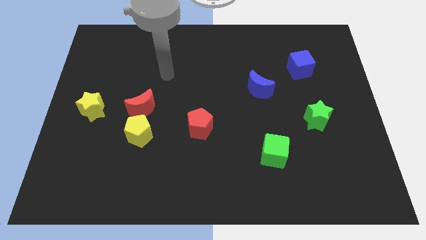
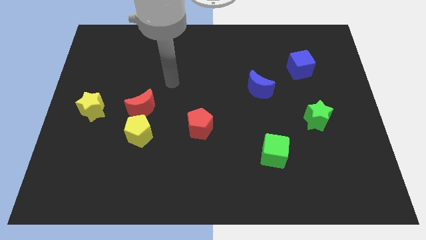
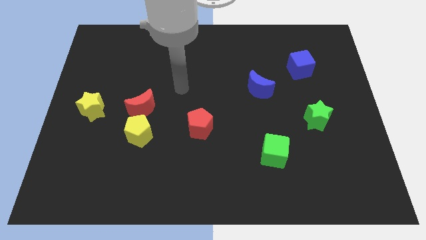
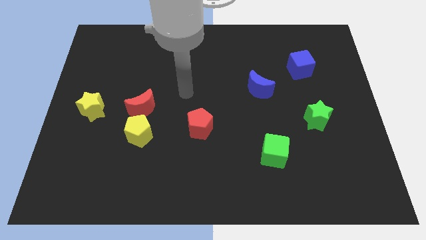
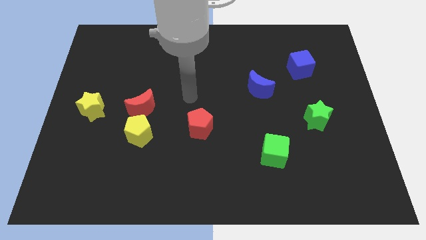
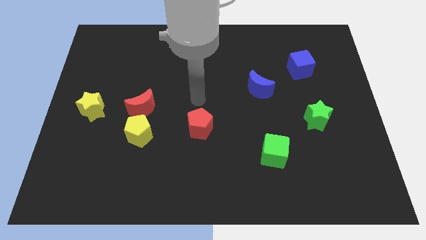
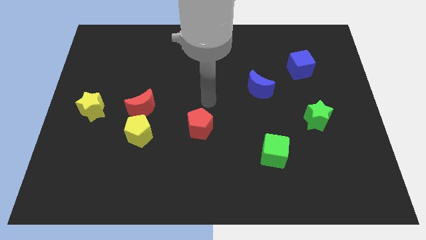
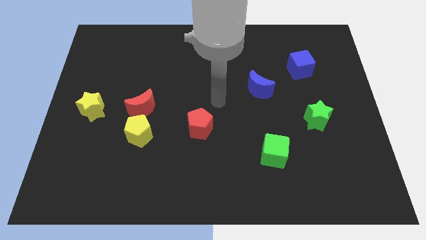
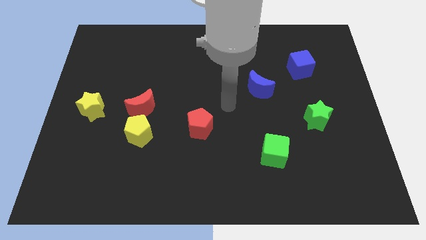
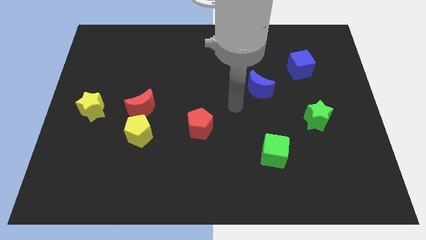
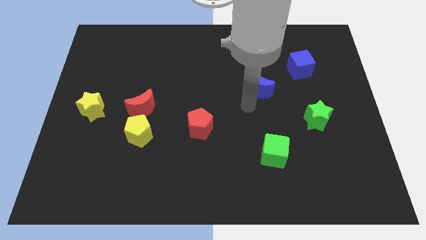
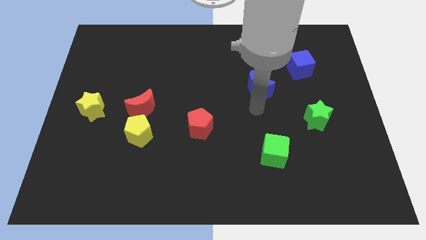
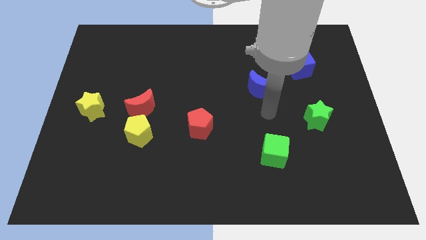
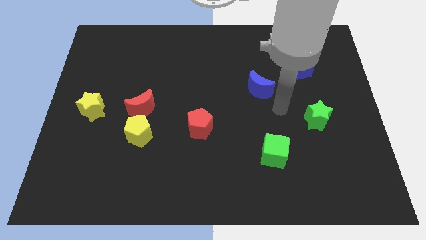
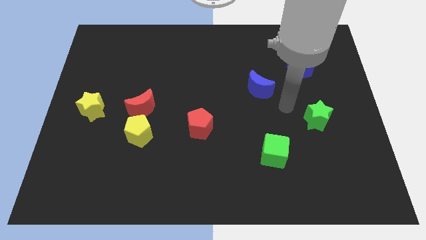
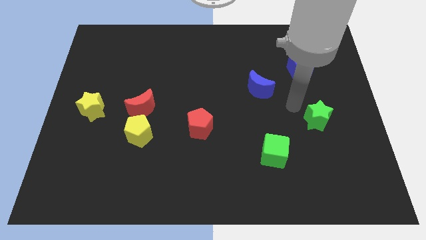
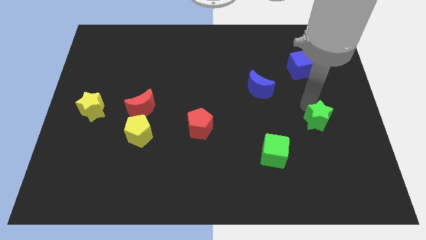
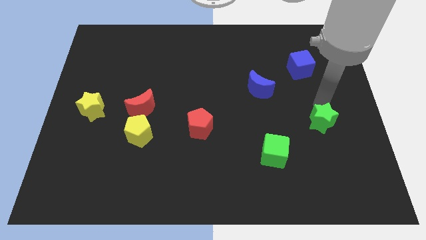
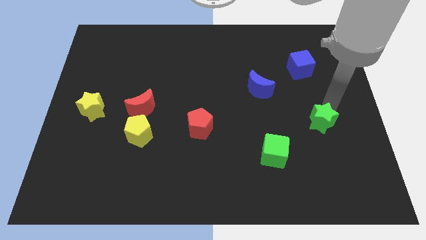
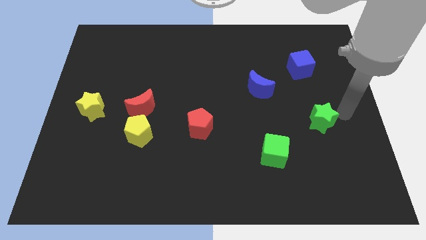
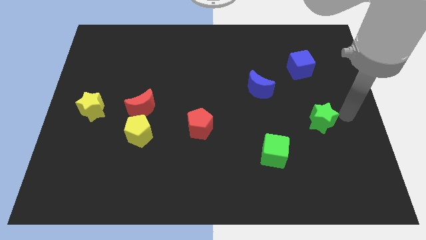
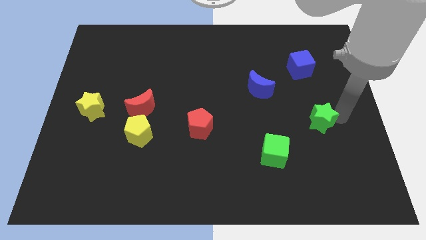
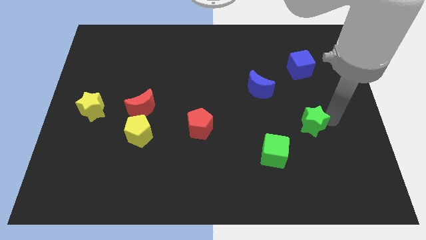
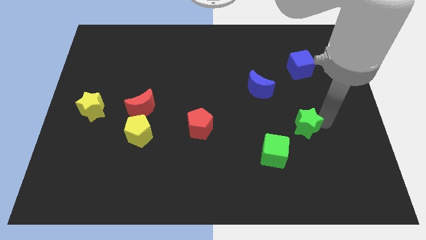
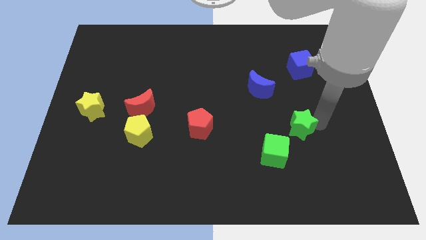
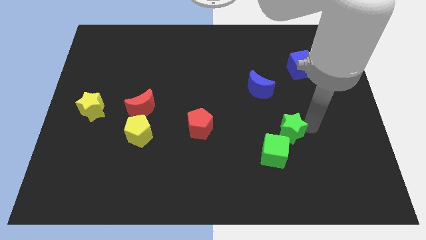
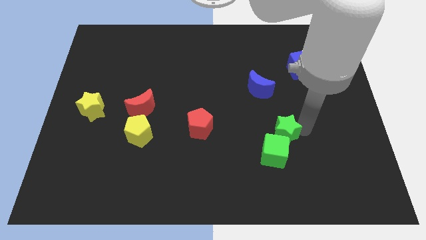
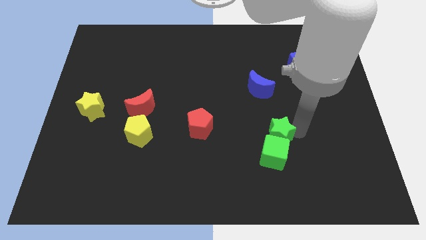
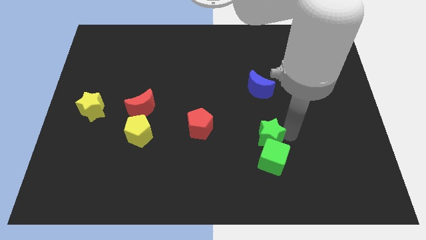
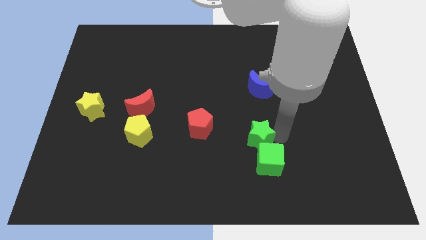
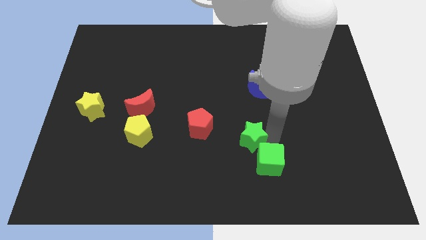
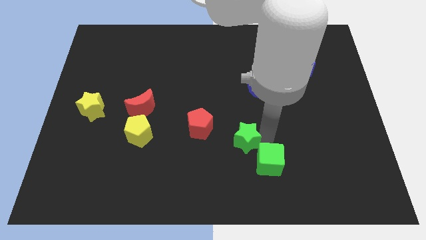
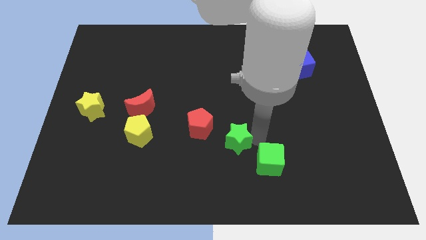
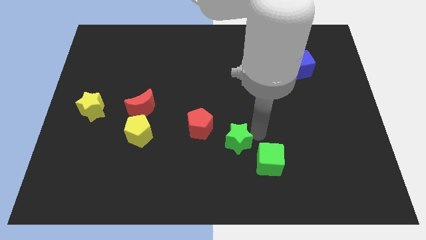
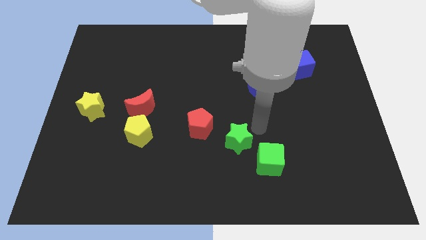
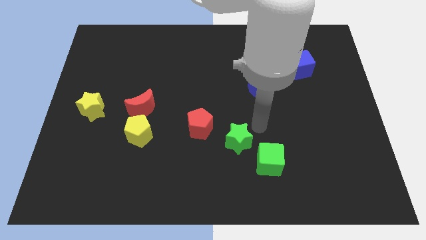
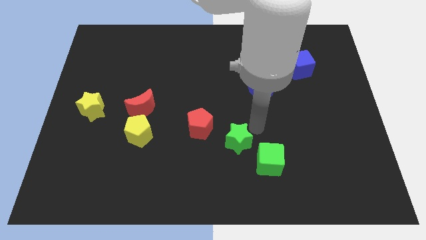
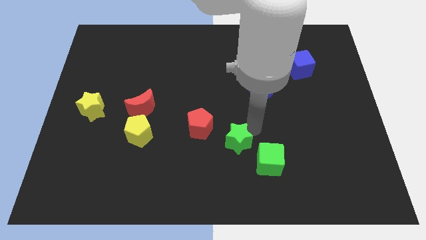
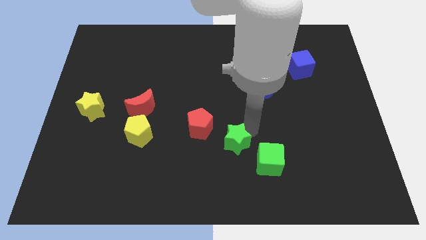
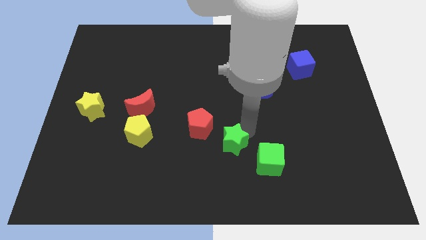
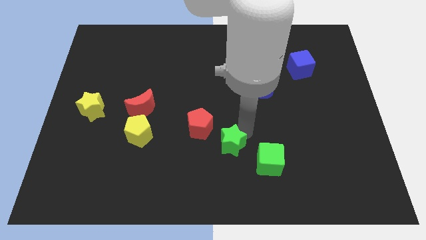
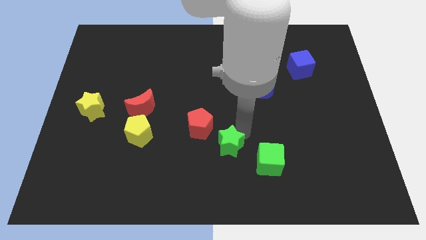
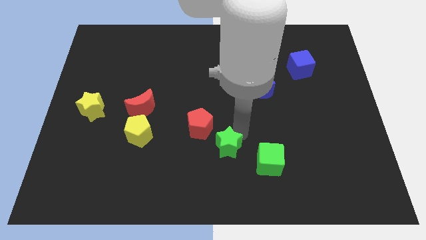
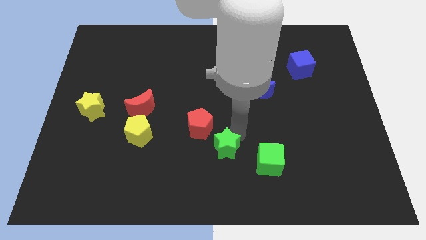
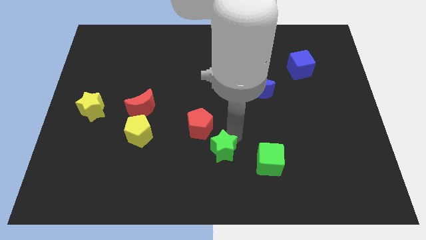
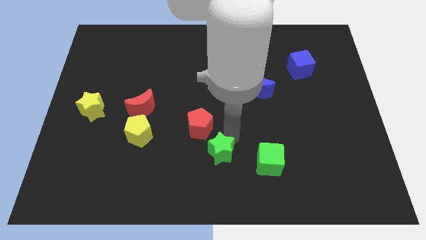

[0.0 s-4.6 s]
push the green star to the bottom of the red pentagon

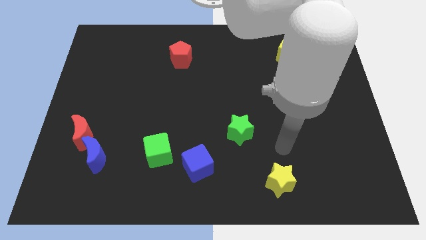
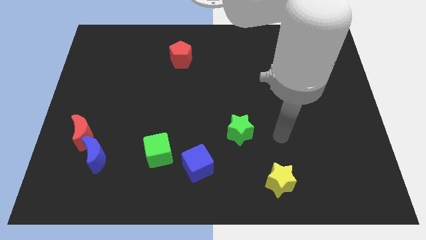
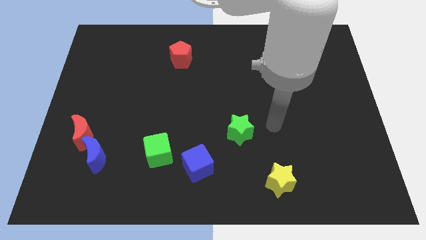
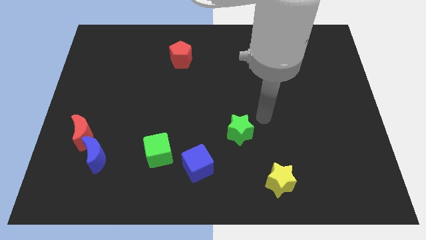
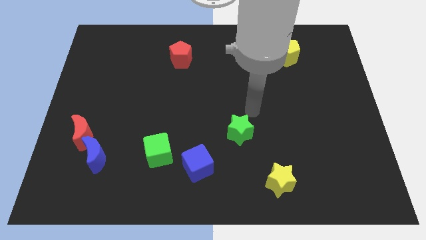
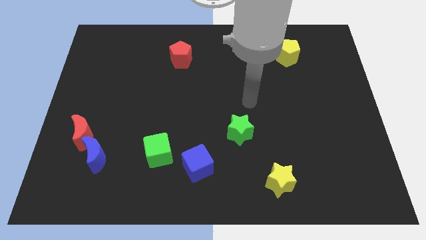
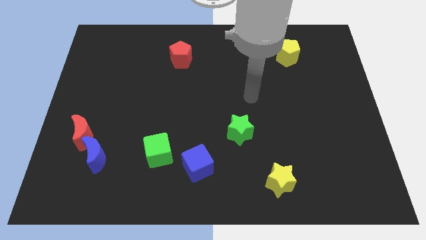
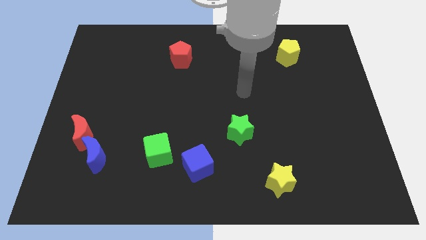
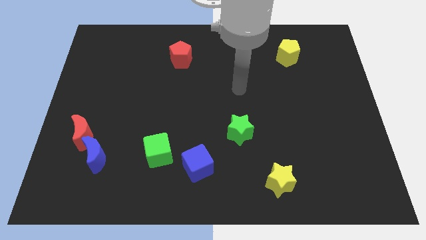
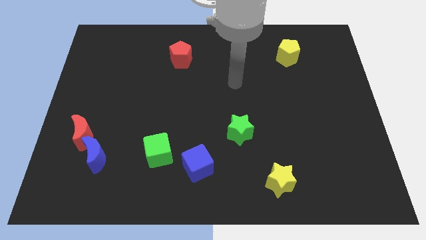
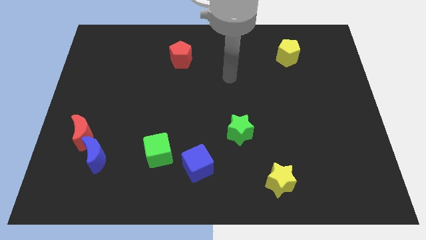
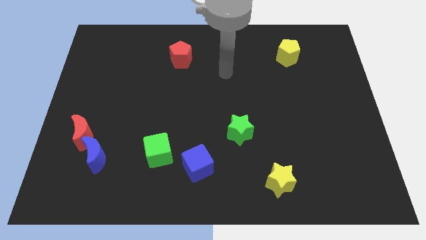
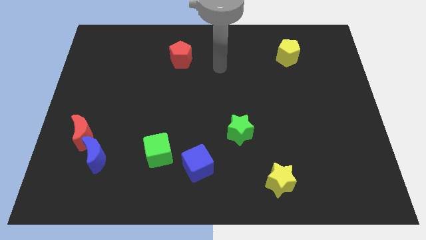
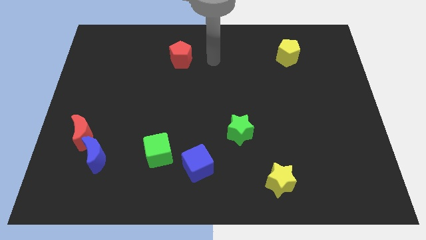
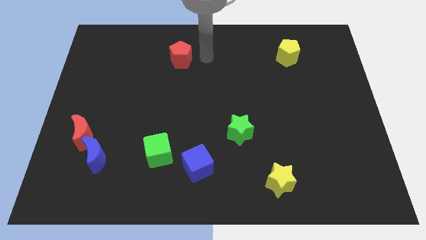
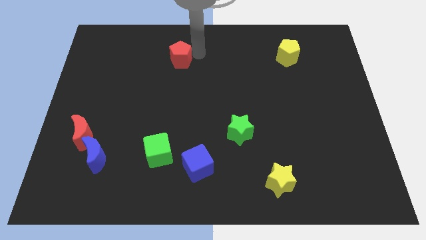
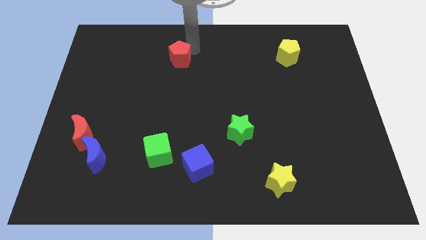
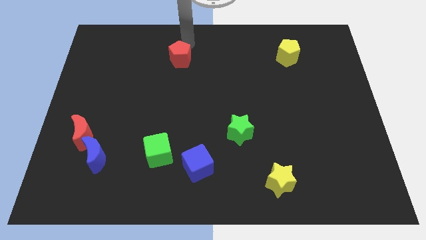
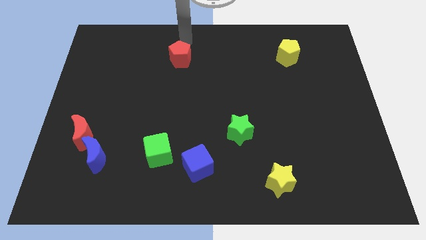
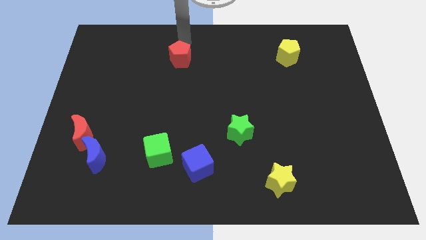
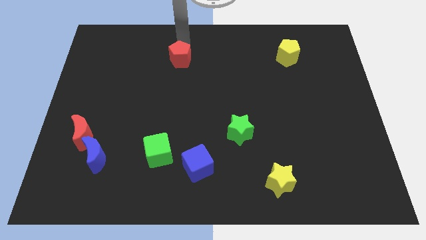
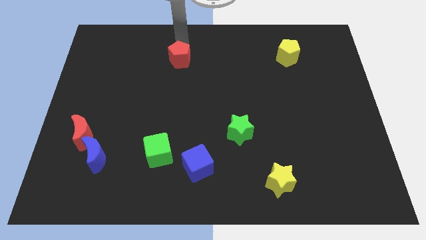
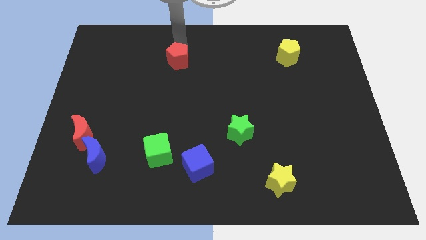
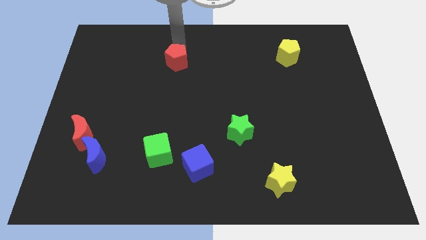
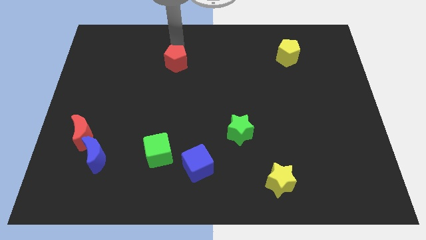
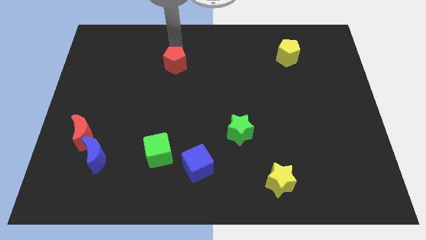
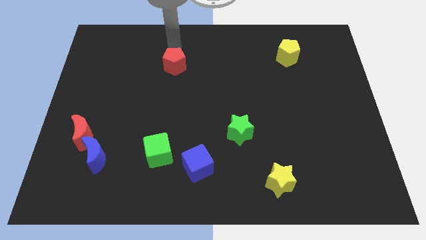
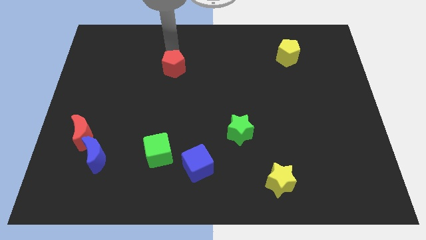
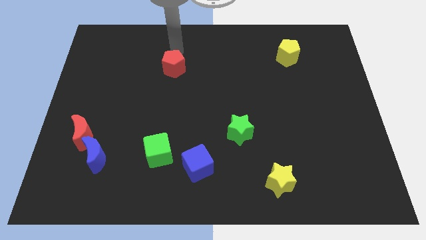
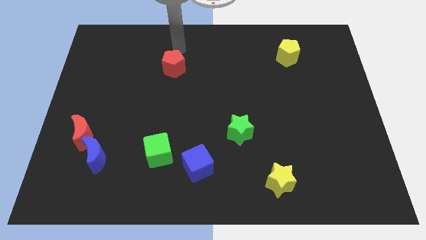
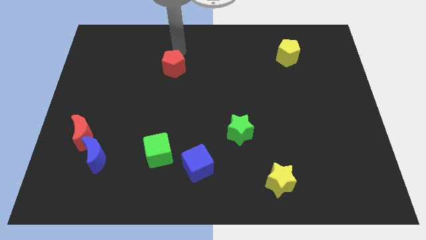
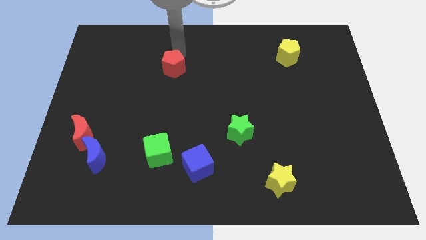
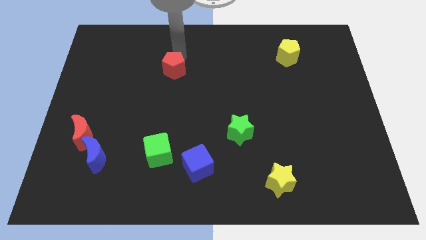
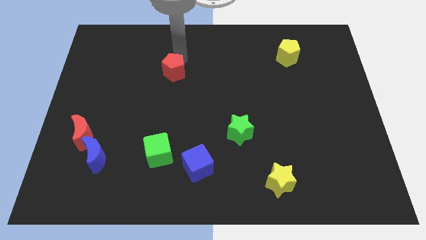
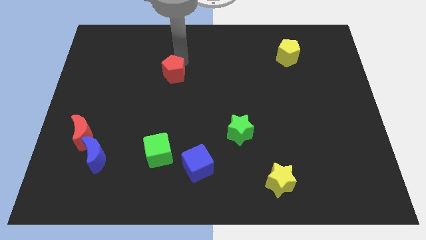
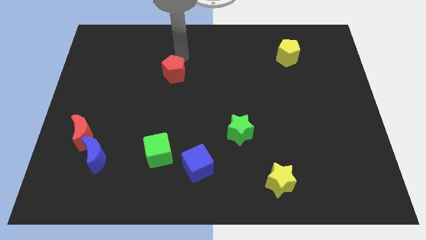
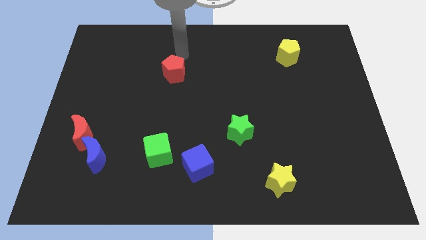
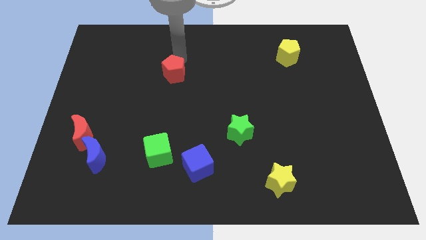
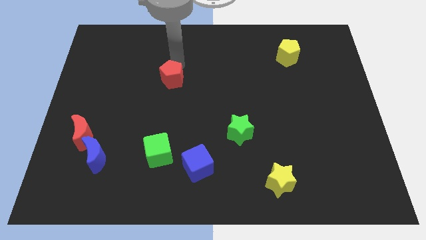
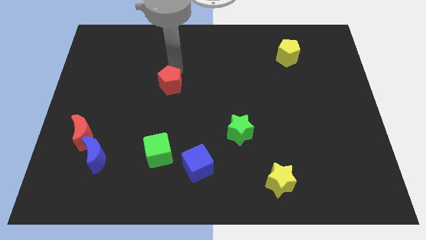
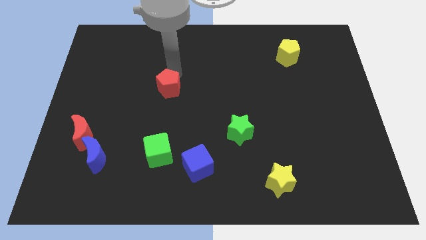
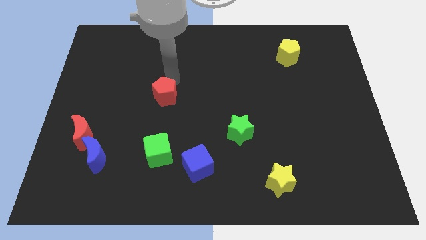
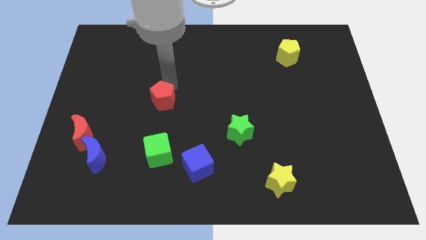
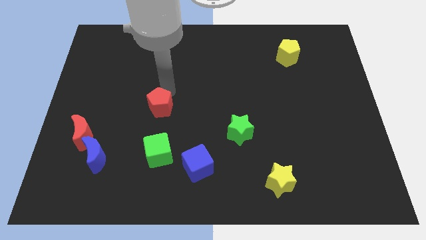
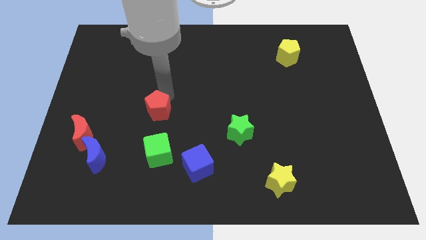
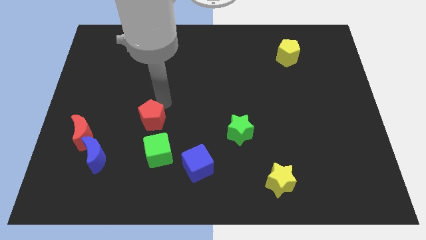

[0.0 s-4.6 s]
move the red pentagon diagonally up and to the left of the green cube
